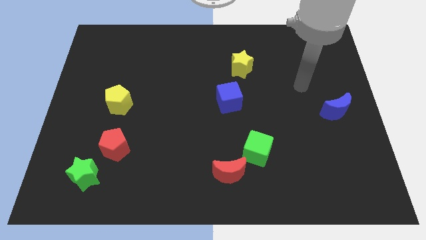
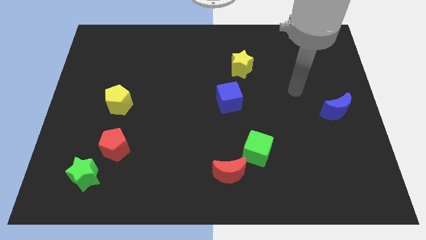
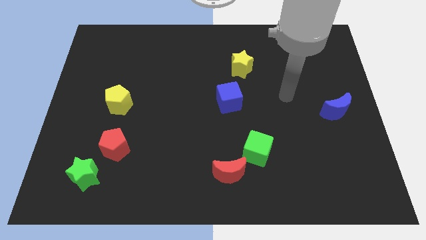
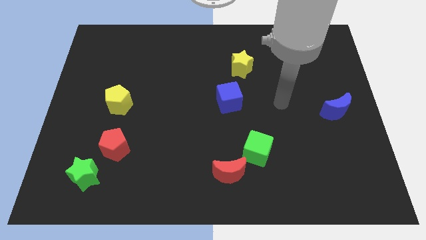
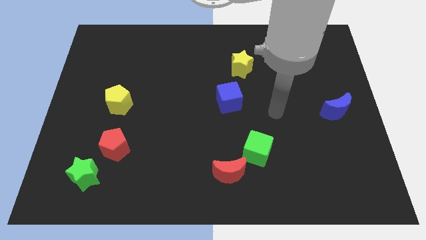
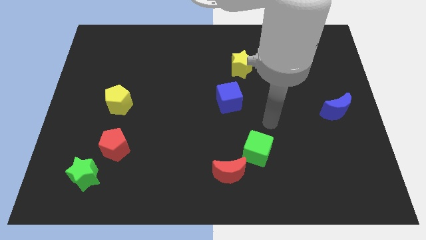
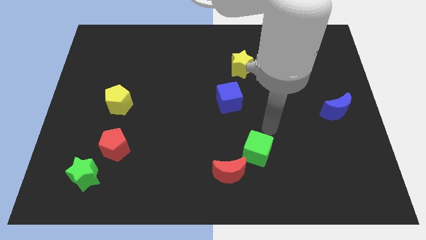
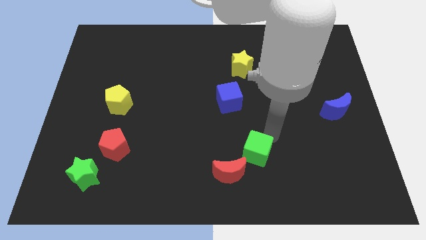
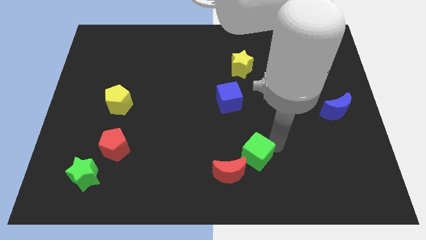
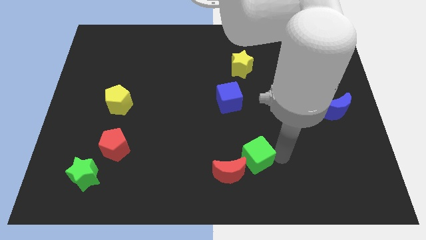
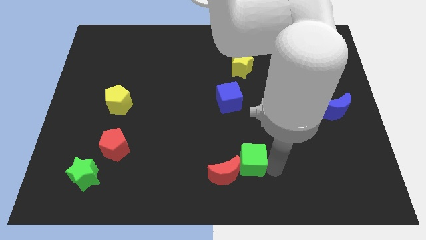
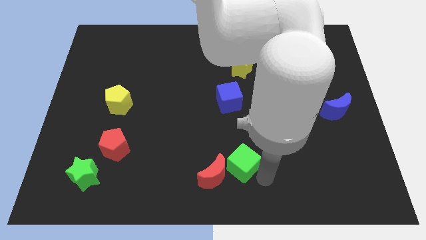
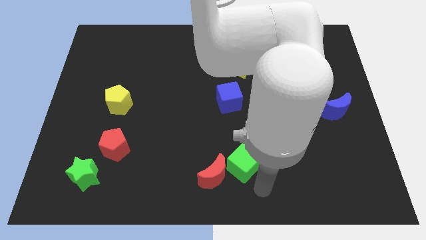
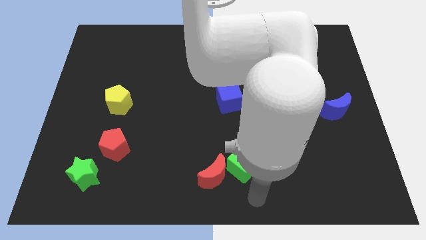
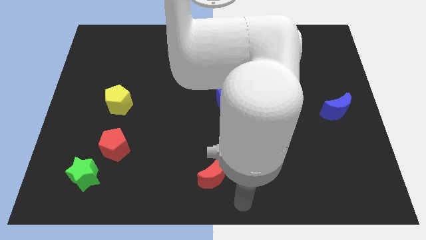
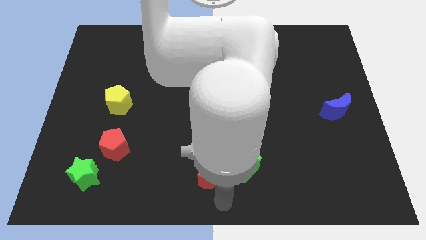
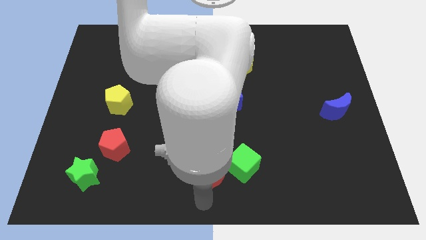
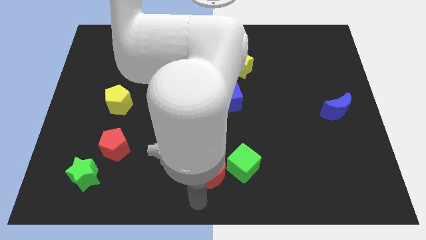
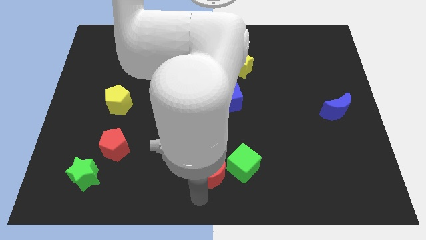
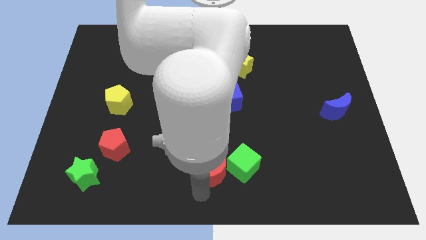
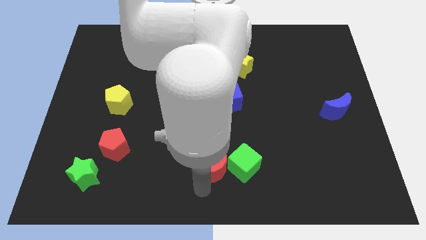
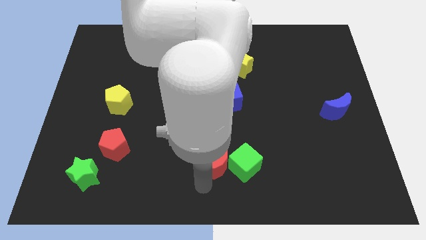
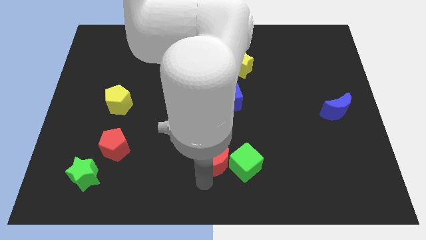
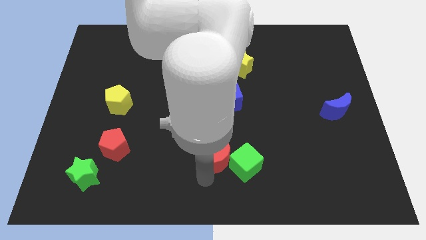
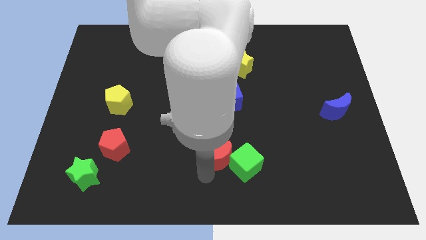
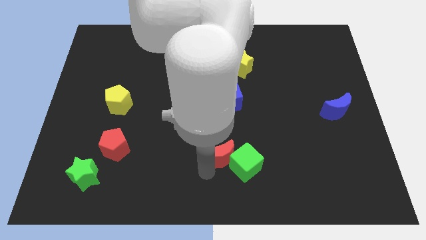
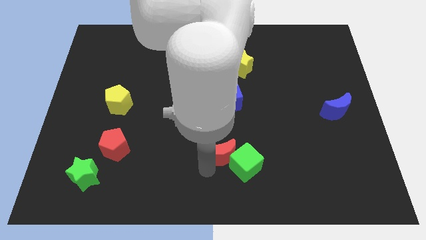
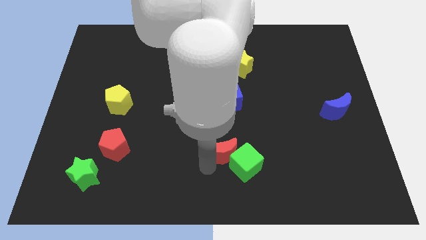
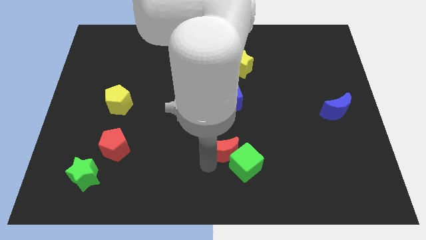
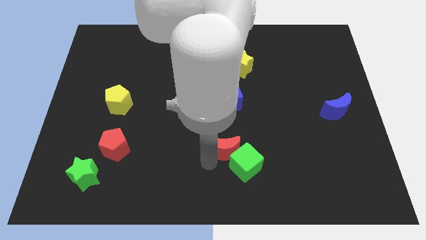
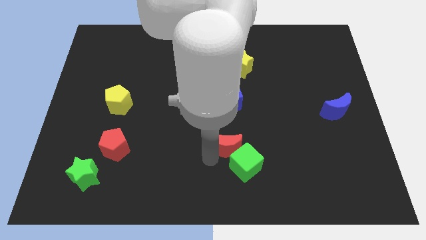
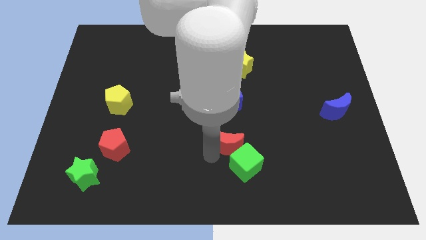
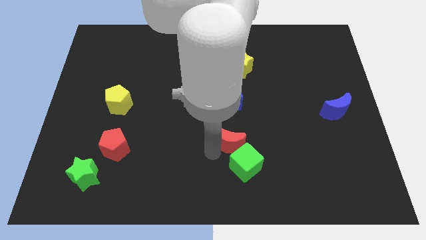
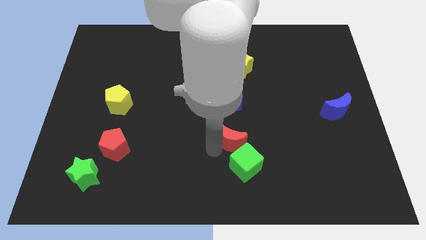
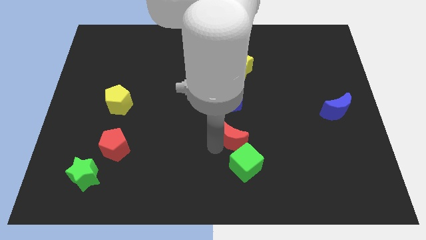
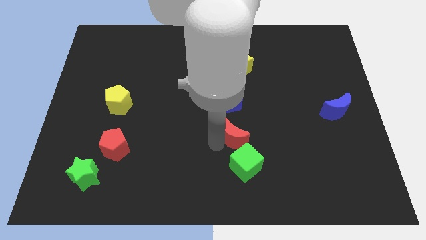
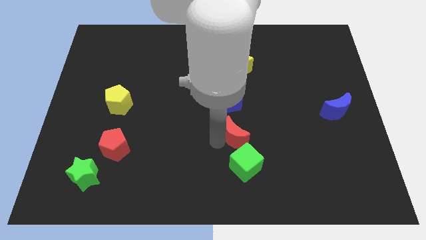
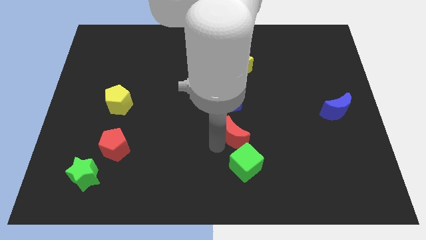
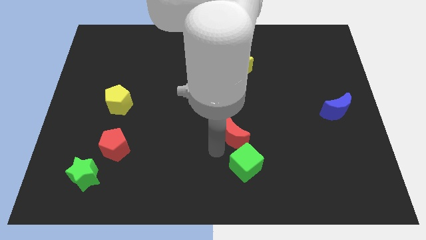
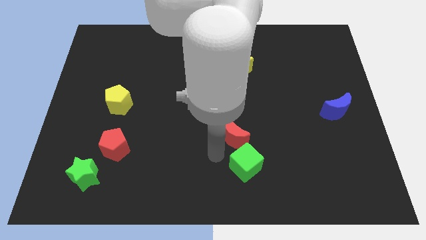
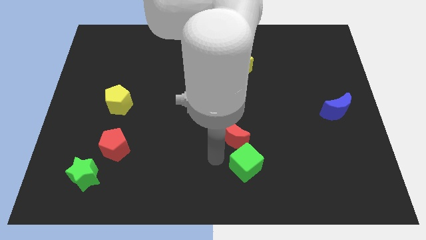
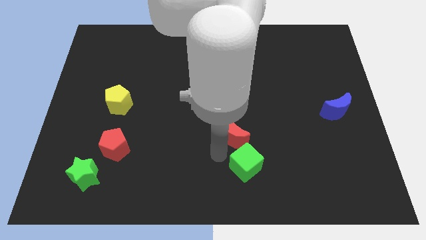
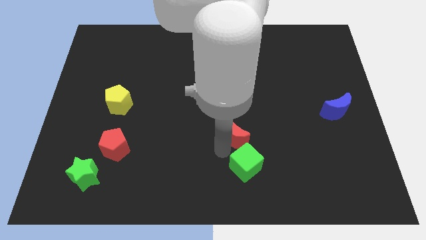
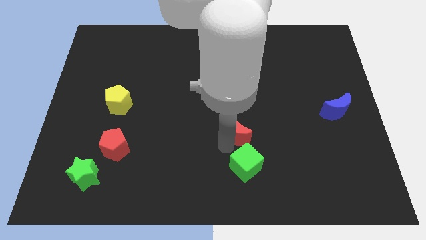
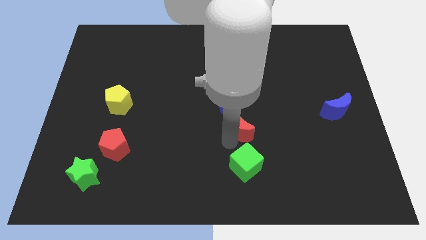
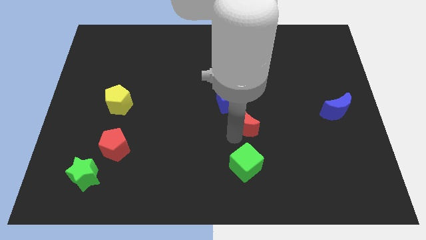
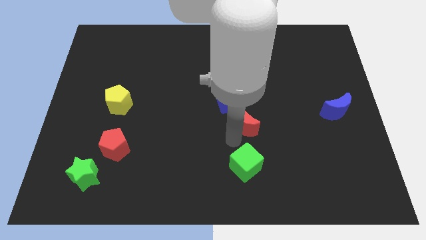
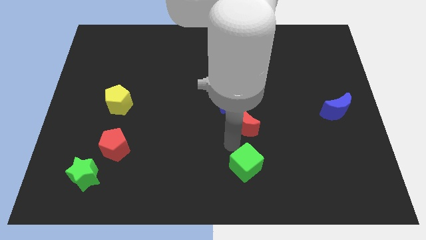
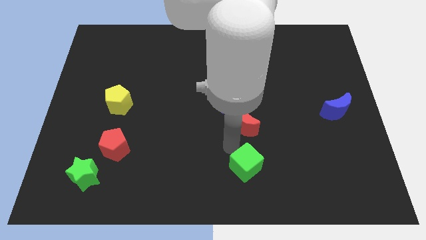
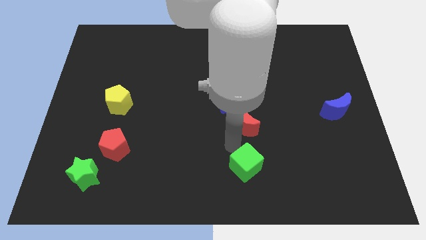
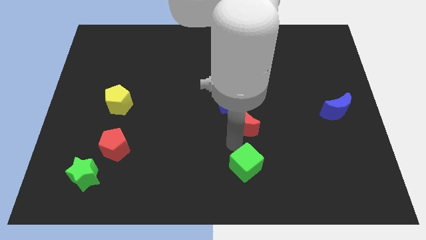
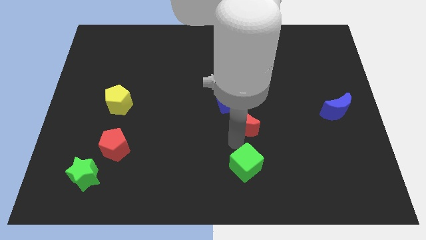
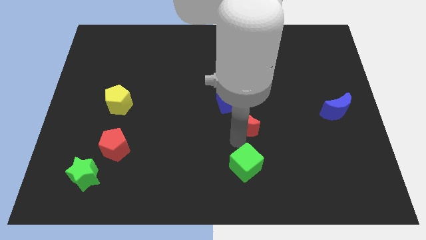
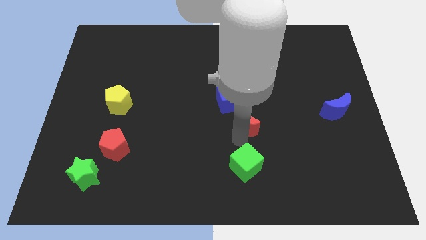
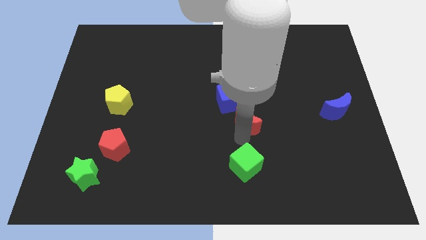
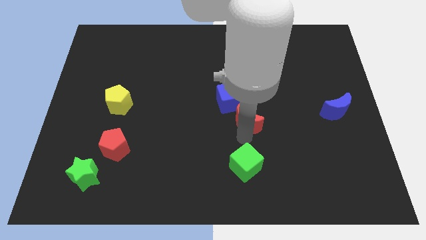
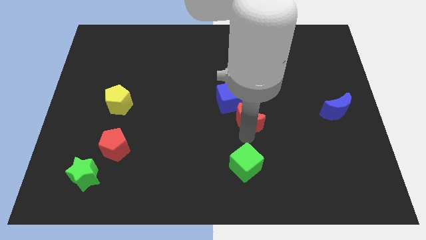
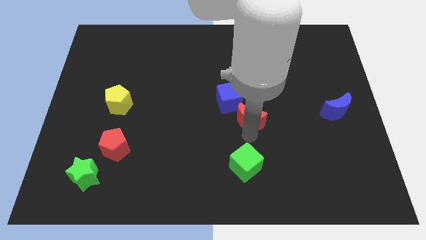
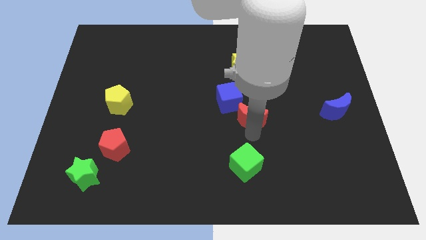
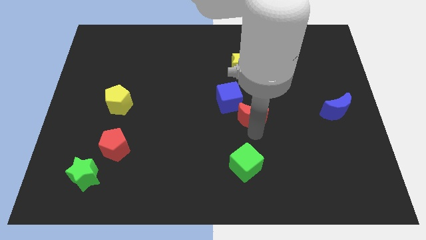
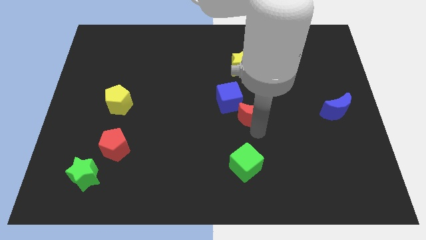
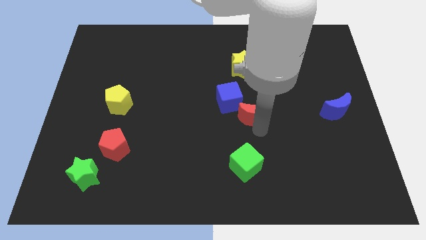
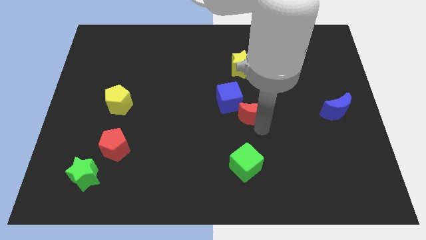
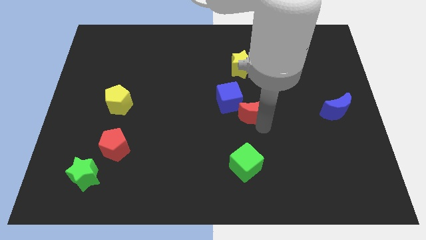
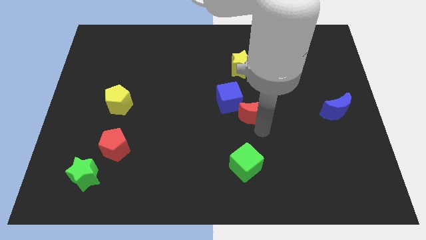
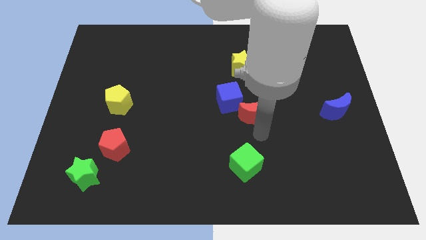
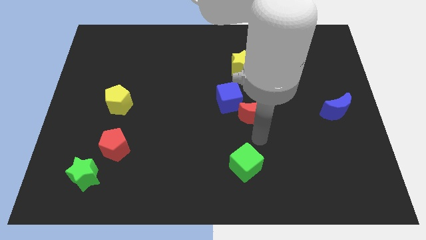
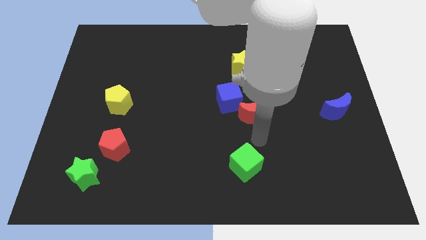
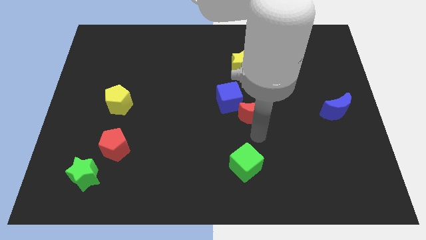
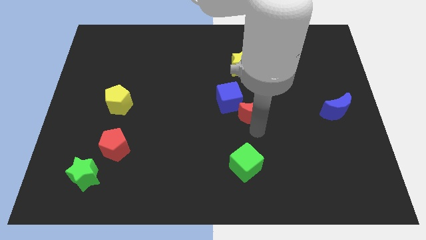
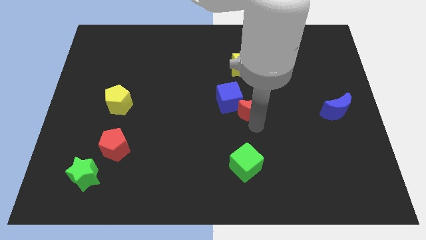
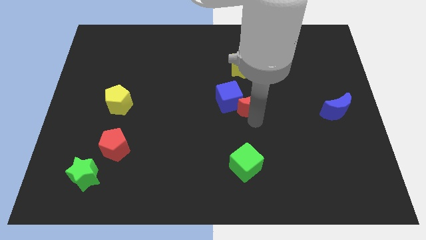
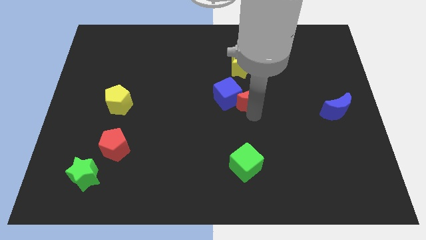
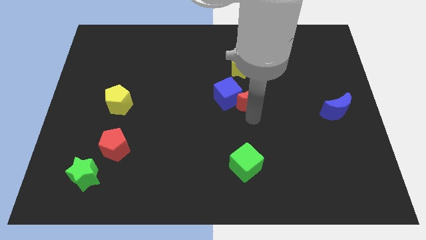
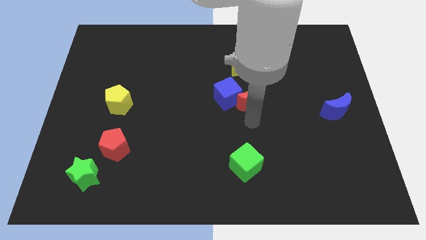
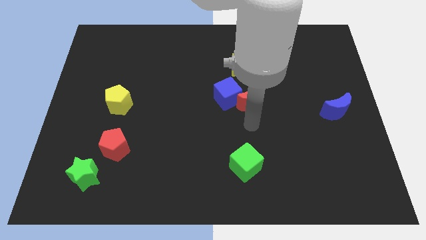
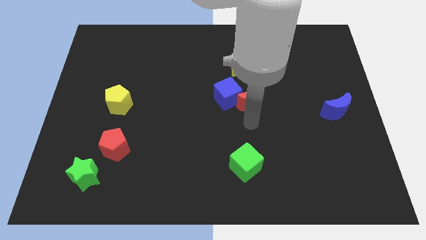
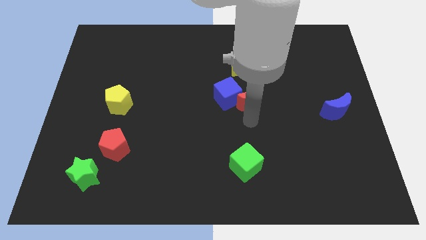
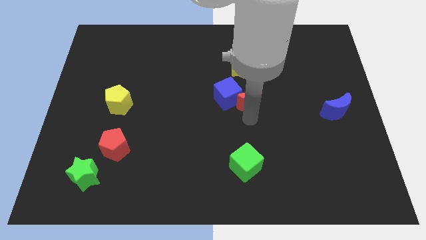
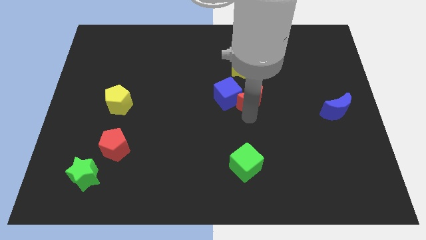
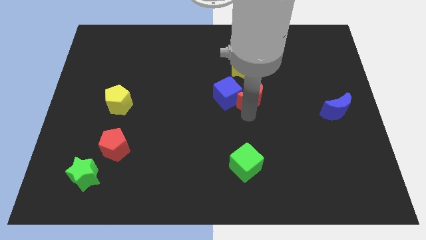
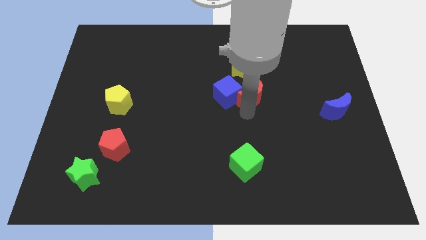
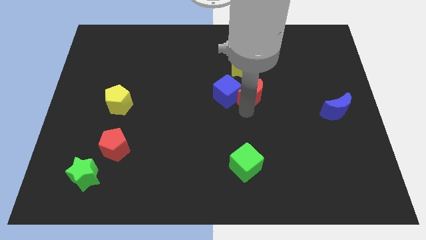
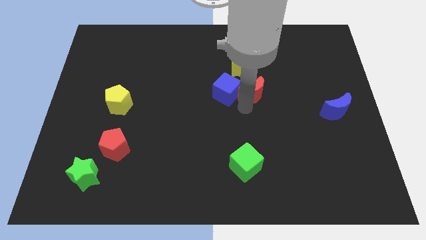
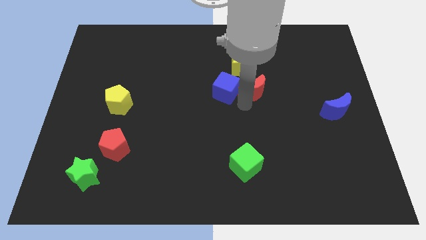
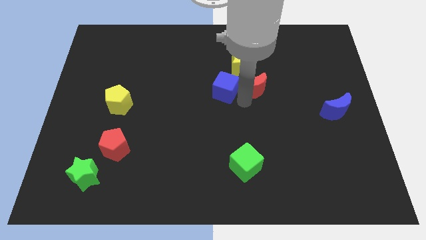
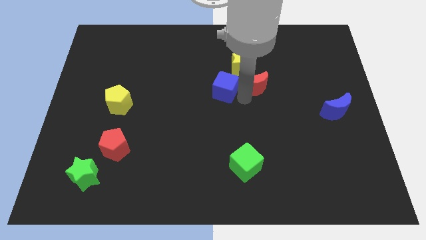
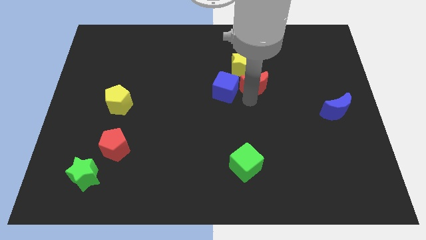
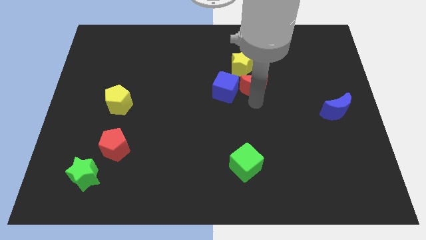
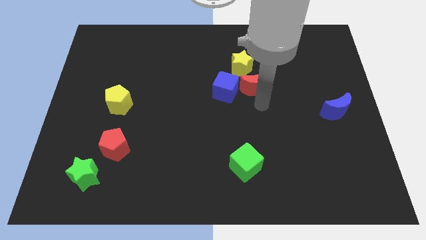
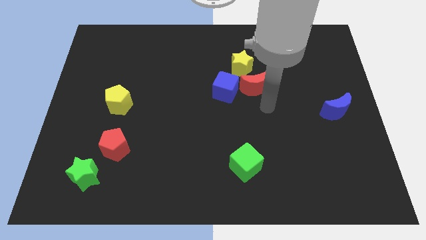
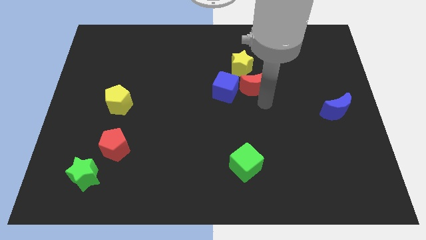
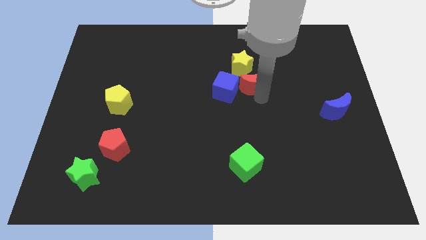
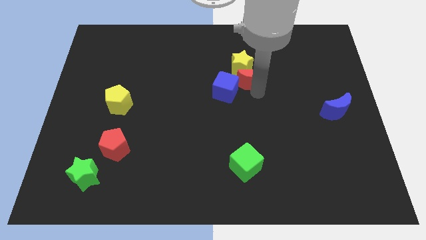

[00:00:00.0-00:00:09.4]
move the red moon close to the yellow star
